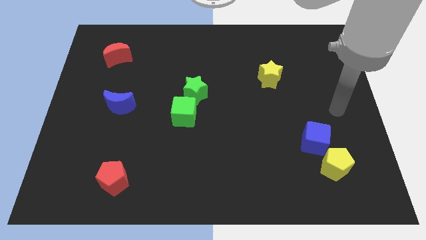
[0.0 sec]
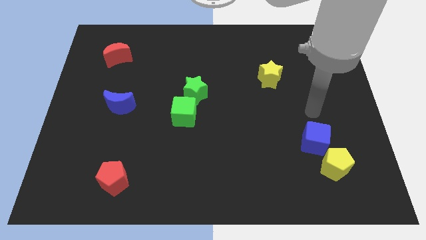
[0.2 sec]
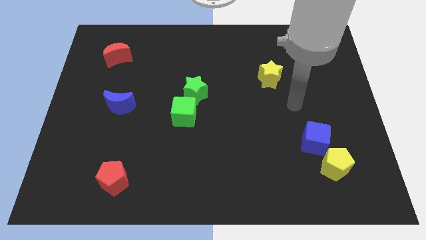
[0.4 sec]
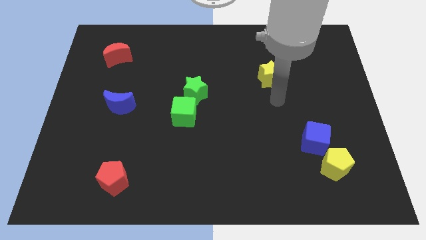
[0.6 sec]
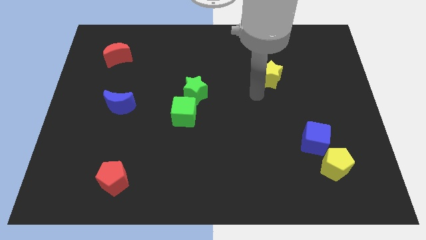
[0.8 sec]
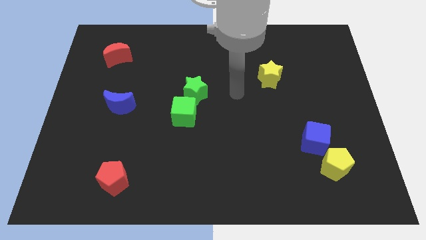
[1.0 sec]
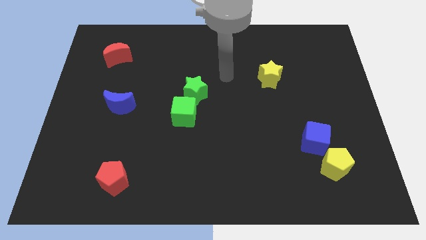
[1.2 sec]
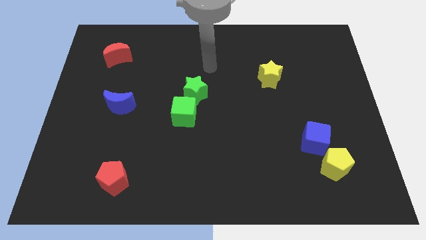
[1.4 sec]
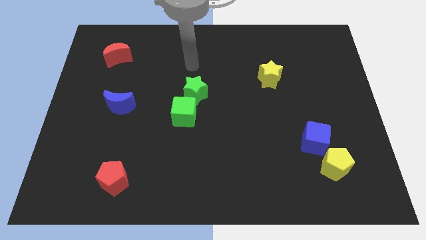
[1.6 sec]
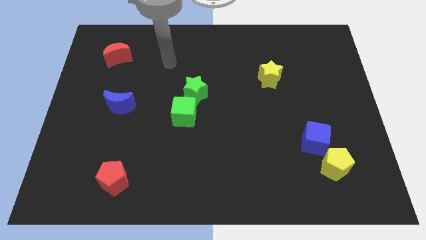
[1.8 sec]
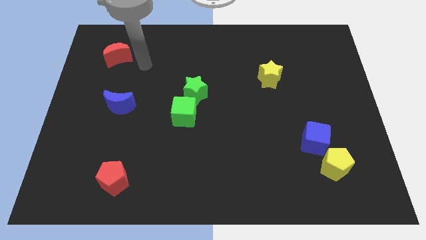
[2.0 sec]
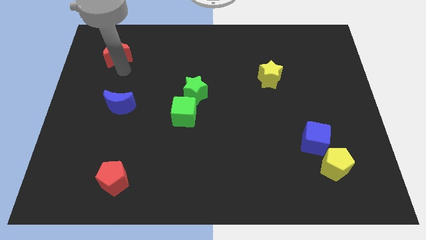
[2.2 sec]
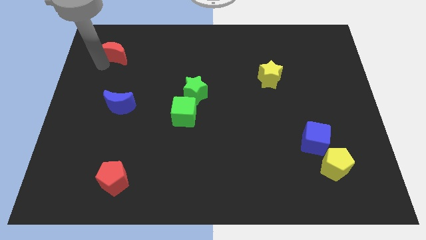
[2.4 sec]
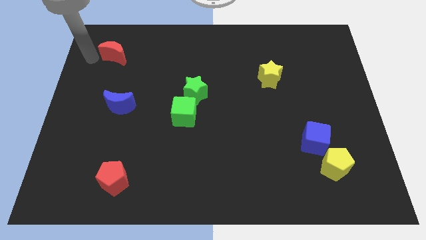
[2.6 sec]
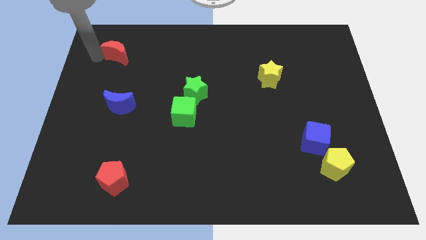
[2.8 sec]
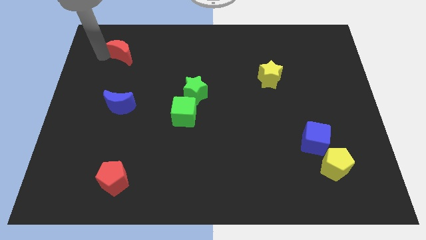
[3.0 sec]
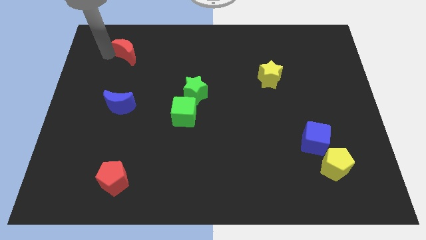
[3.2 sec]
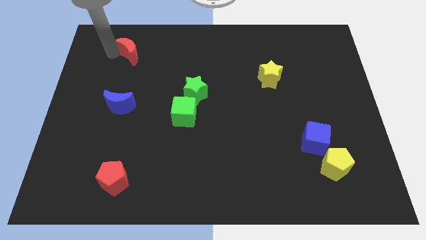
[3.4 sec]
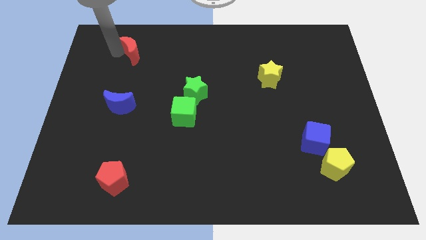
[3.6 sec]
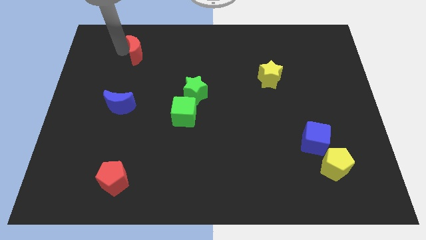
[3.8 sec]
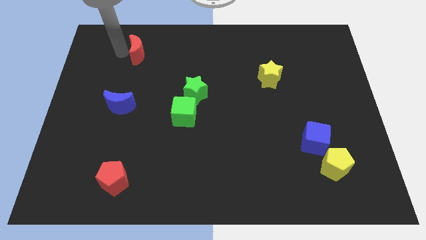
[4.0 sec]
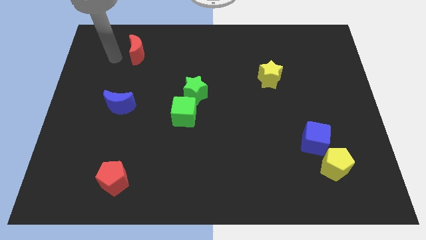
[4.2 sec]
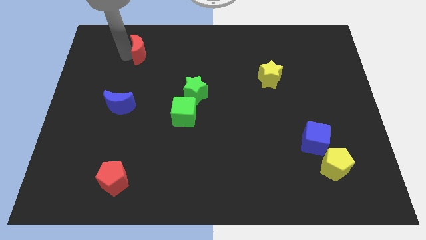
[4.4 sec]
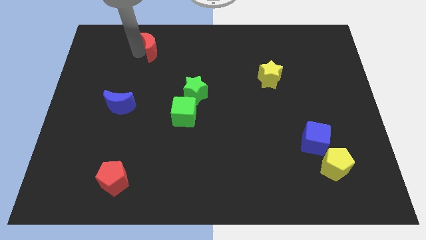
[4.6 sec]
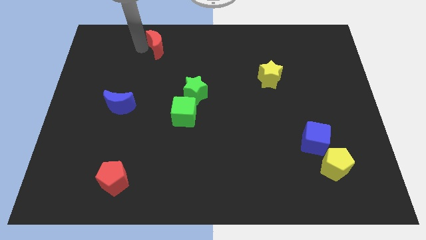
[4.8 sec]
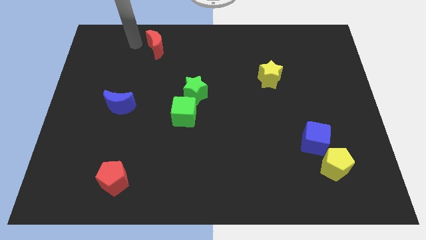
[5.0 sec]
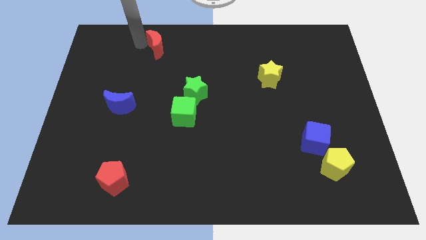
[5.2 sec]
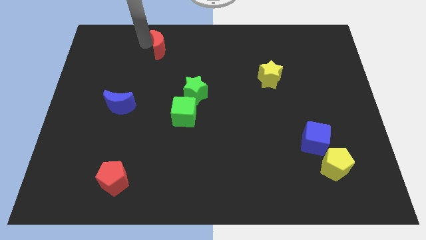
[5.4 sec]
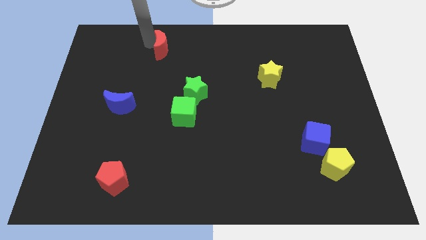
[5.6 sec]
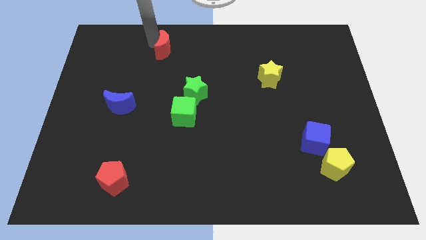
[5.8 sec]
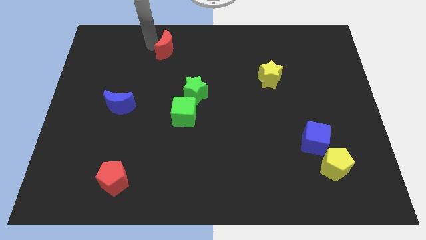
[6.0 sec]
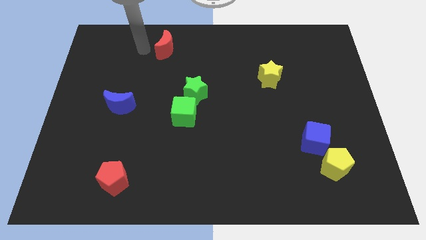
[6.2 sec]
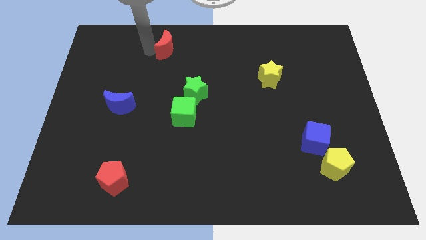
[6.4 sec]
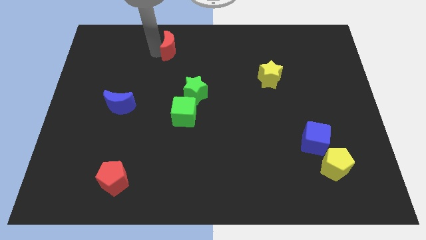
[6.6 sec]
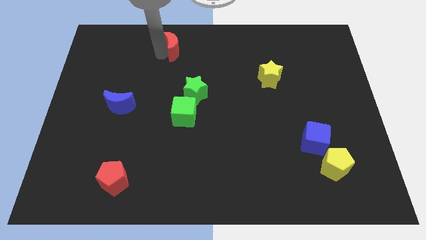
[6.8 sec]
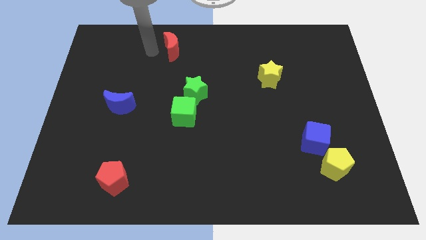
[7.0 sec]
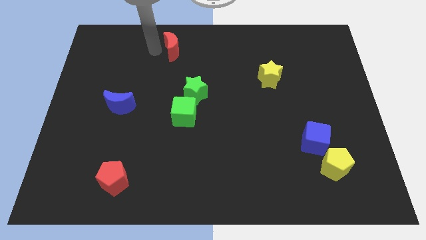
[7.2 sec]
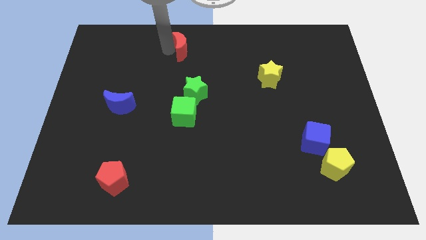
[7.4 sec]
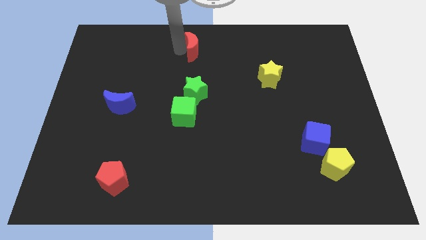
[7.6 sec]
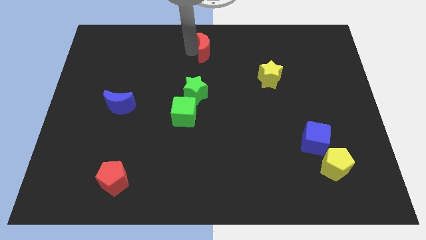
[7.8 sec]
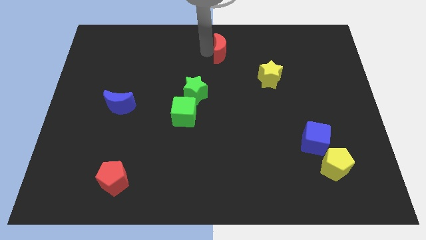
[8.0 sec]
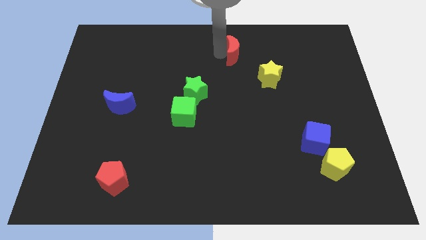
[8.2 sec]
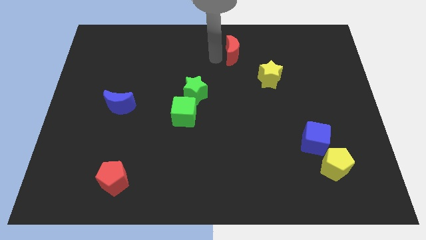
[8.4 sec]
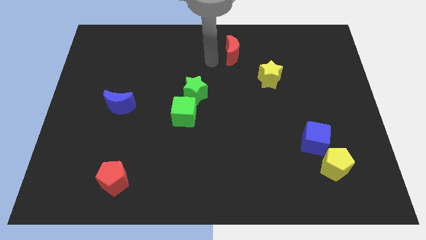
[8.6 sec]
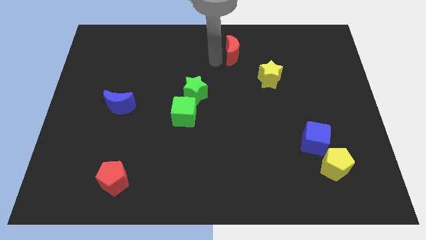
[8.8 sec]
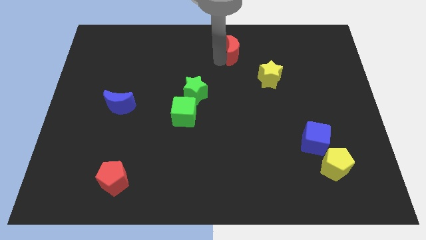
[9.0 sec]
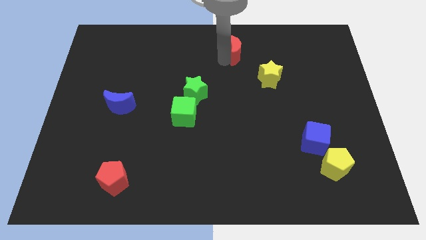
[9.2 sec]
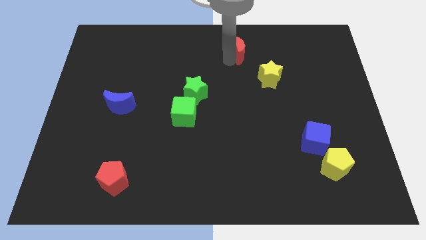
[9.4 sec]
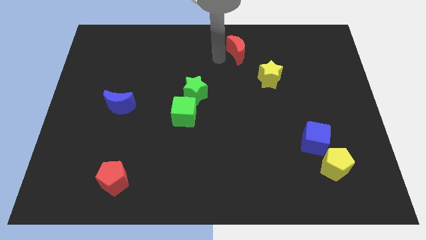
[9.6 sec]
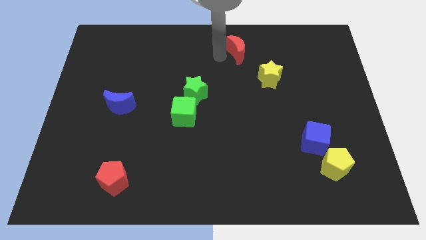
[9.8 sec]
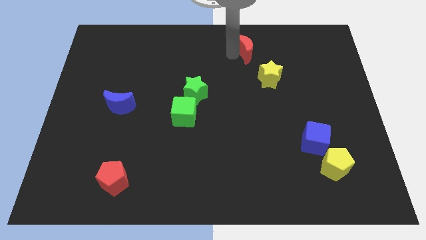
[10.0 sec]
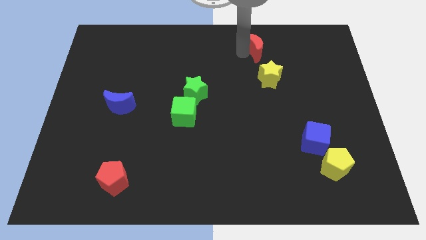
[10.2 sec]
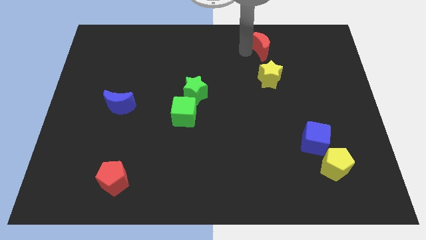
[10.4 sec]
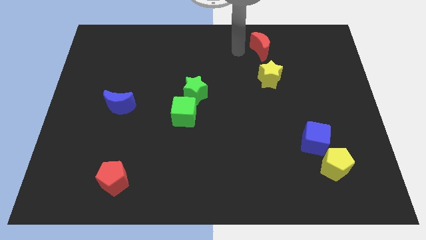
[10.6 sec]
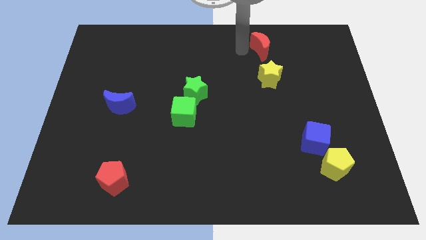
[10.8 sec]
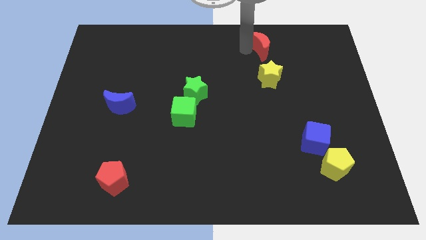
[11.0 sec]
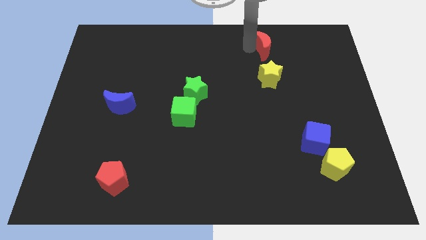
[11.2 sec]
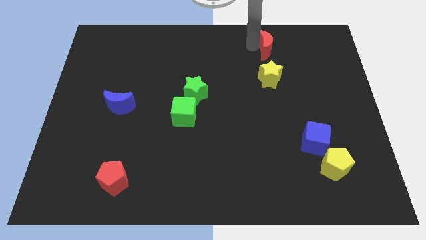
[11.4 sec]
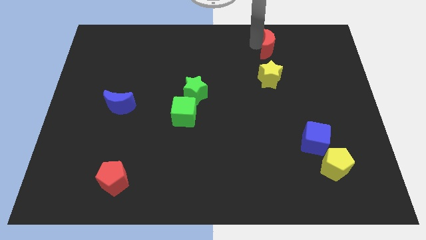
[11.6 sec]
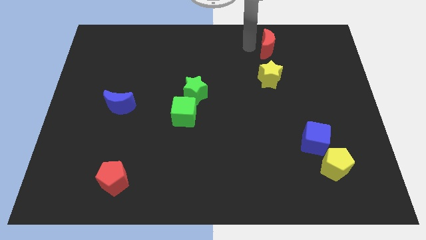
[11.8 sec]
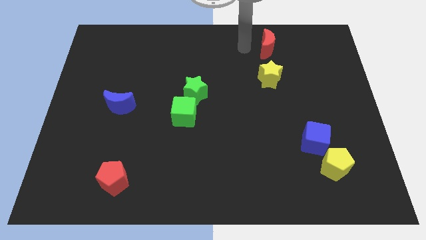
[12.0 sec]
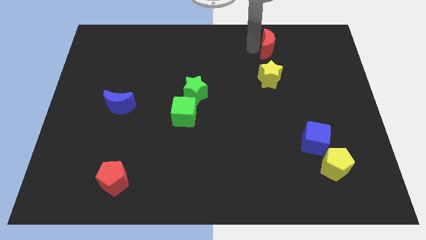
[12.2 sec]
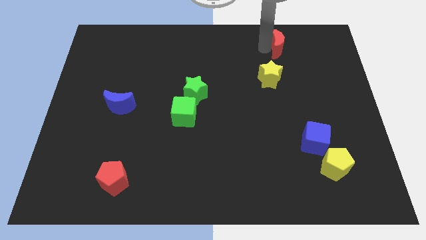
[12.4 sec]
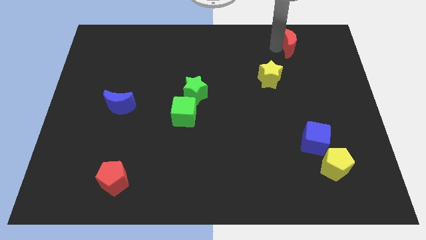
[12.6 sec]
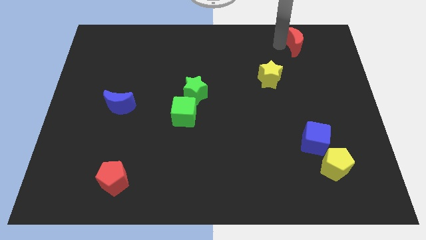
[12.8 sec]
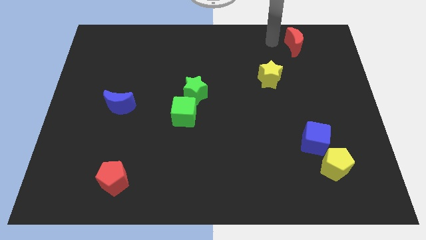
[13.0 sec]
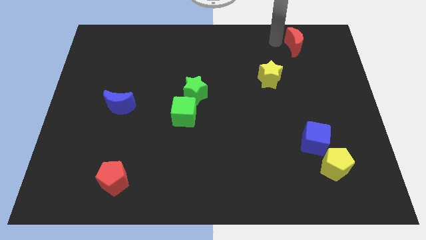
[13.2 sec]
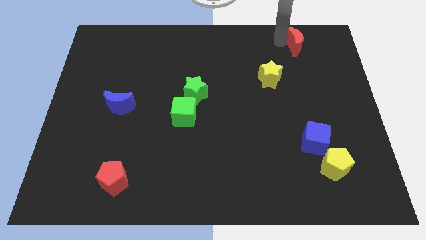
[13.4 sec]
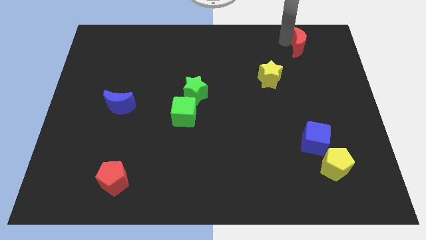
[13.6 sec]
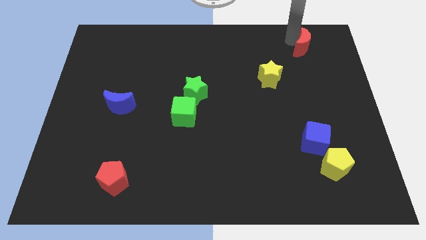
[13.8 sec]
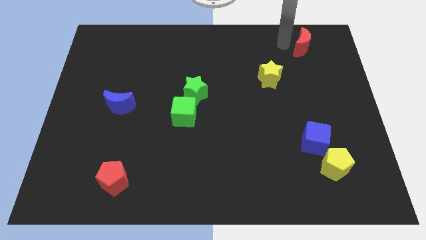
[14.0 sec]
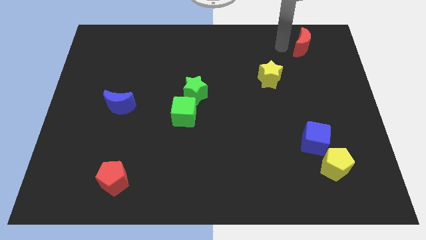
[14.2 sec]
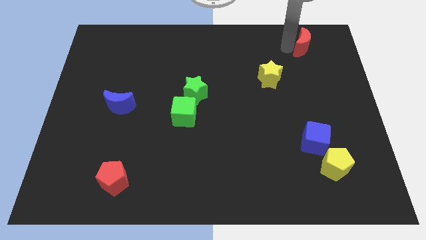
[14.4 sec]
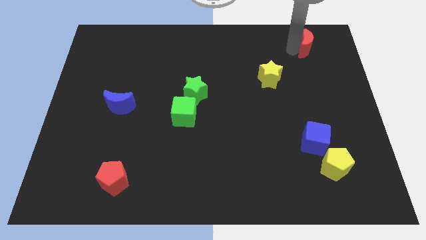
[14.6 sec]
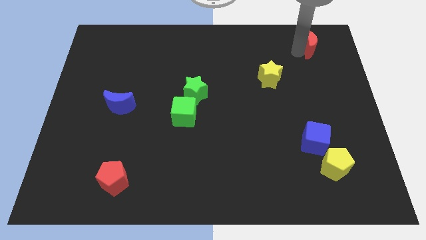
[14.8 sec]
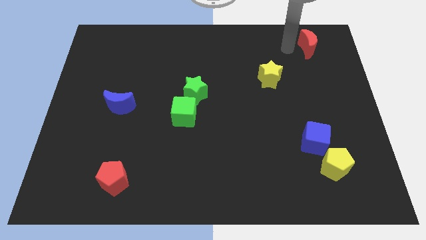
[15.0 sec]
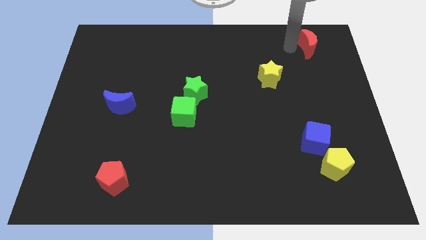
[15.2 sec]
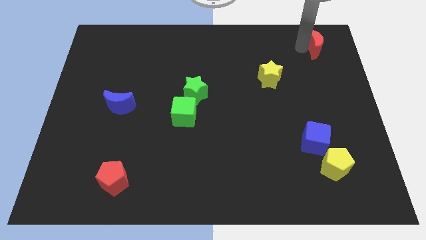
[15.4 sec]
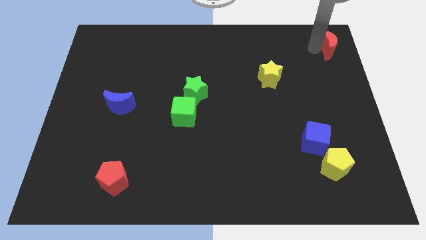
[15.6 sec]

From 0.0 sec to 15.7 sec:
slide the red moon to the top right corner
